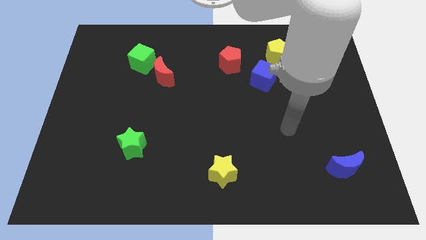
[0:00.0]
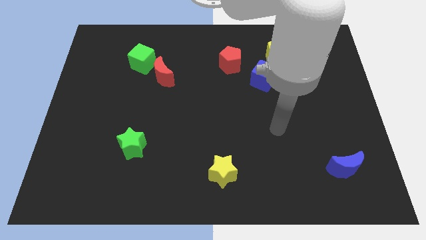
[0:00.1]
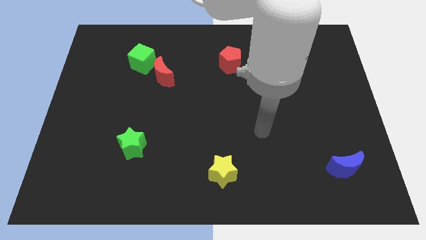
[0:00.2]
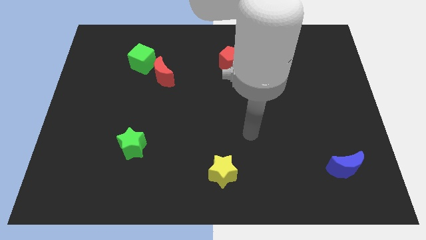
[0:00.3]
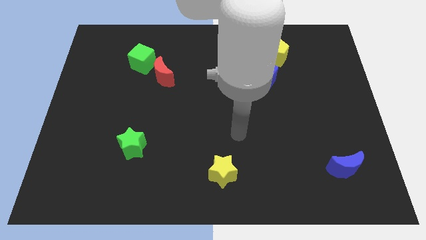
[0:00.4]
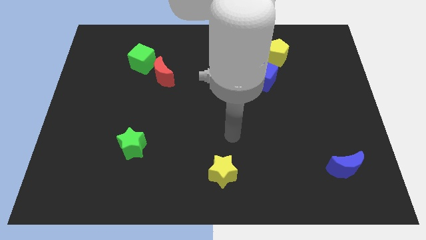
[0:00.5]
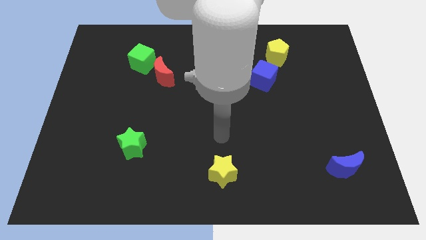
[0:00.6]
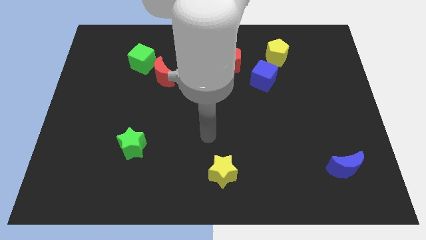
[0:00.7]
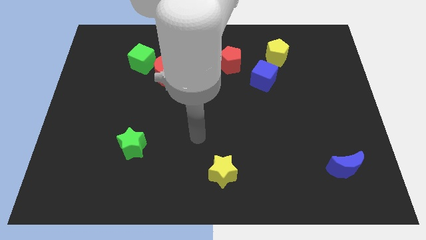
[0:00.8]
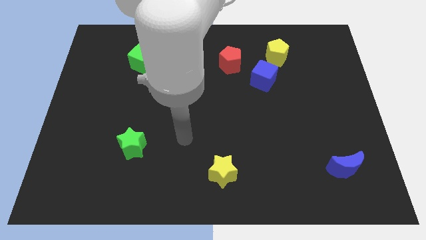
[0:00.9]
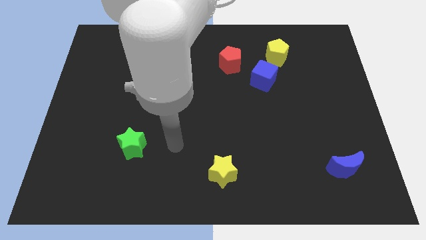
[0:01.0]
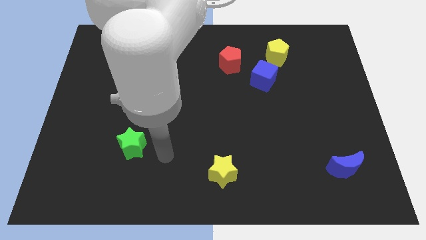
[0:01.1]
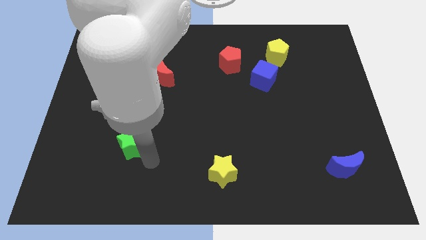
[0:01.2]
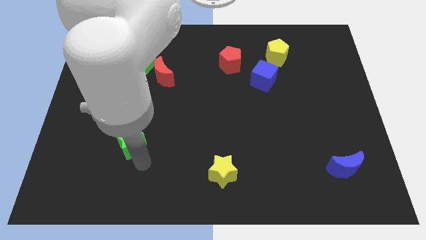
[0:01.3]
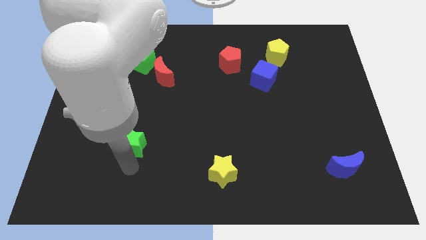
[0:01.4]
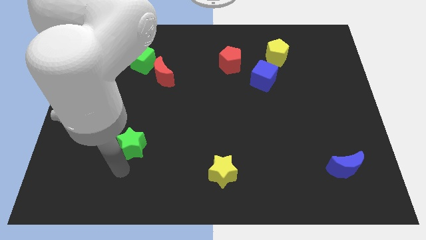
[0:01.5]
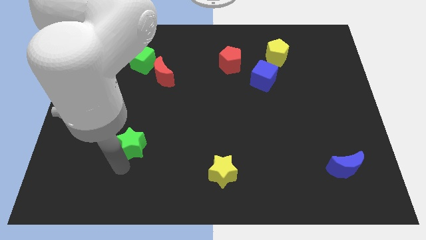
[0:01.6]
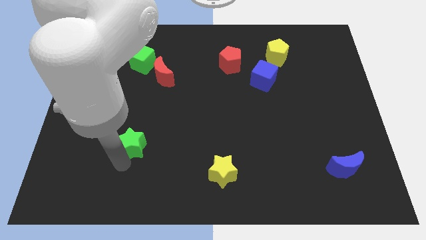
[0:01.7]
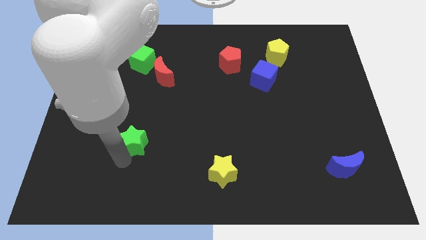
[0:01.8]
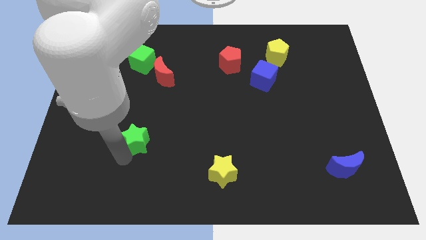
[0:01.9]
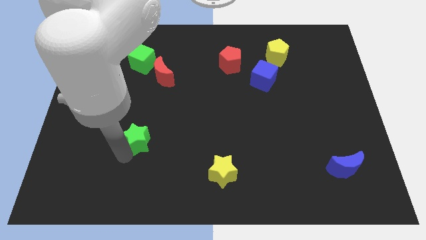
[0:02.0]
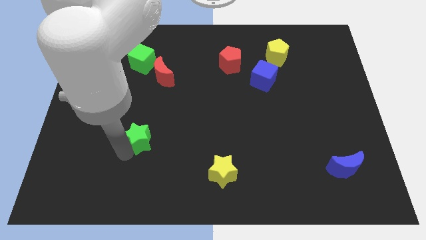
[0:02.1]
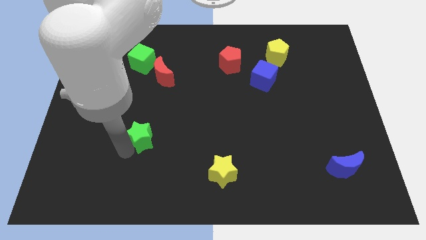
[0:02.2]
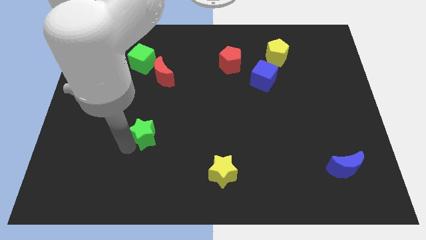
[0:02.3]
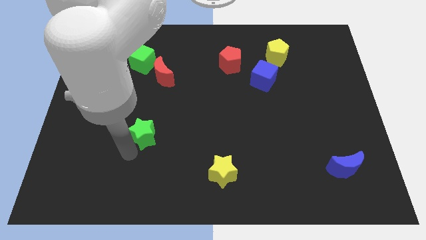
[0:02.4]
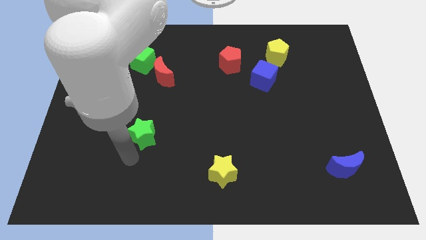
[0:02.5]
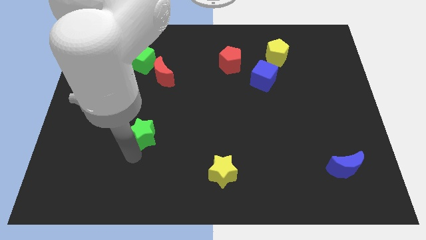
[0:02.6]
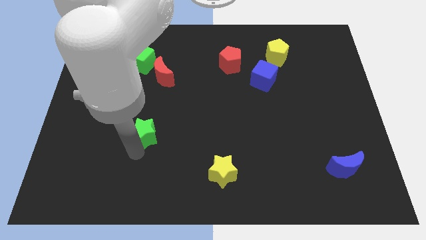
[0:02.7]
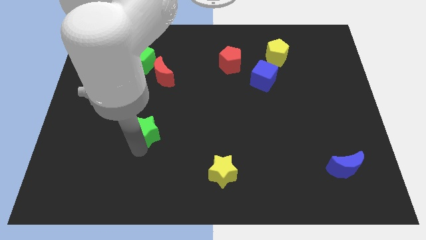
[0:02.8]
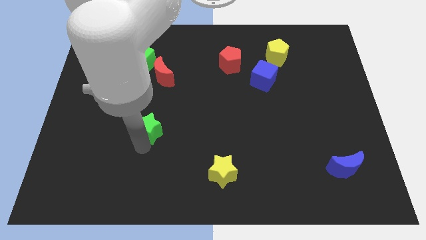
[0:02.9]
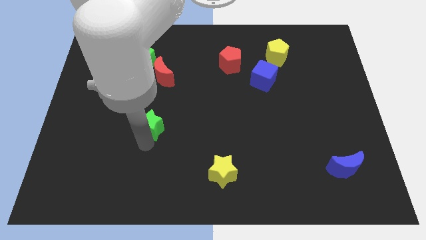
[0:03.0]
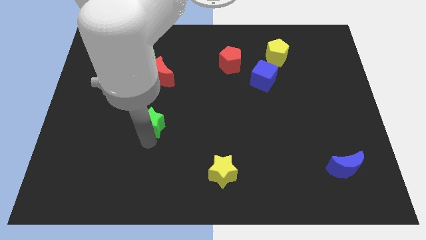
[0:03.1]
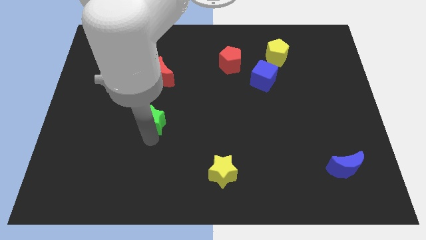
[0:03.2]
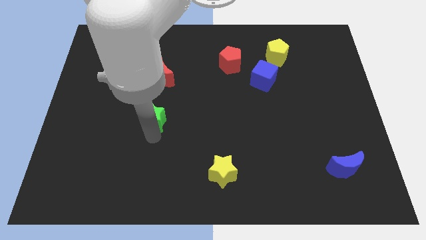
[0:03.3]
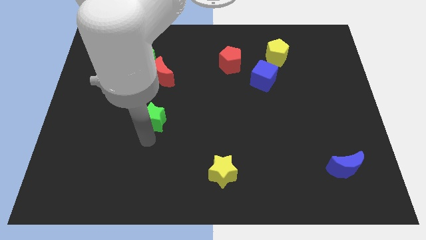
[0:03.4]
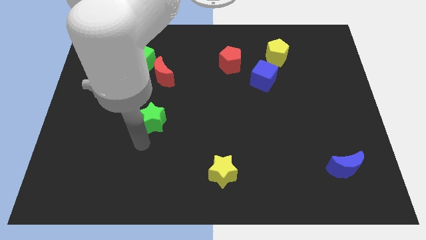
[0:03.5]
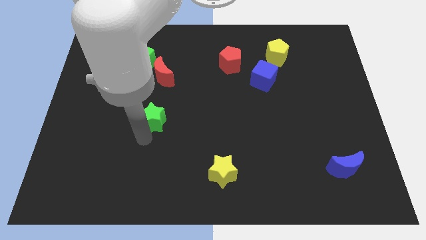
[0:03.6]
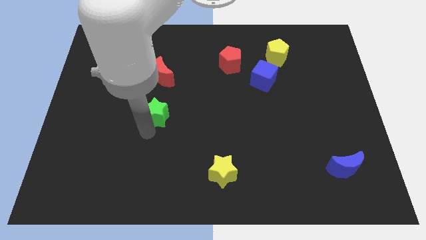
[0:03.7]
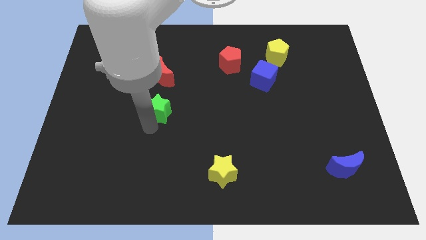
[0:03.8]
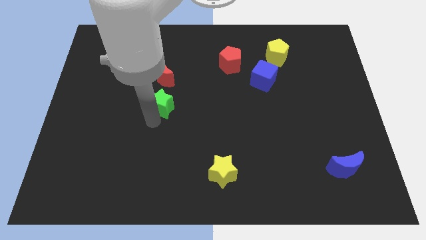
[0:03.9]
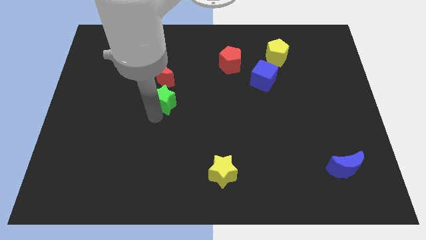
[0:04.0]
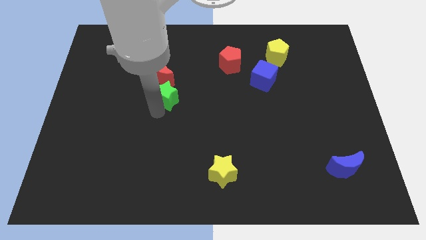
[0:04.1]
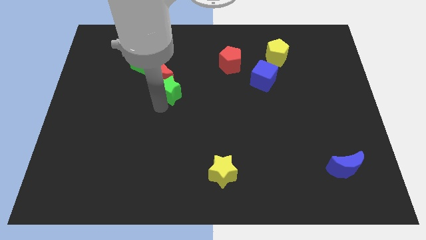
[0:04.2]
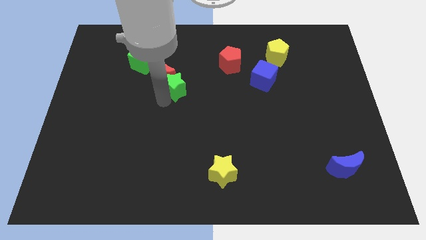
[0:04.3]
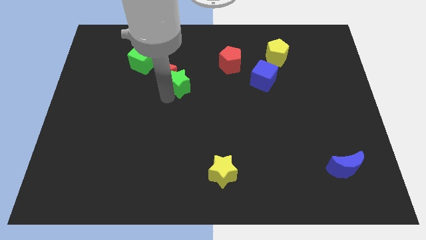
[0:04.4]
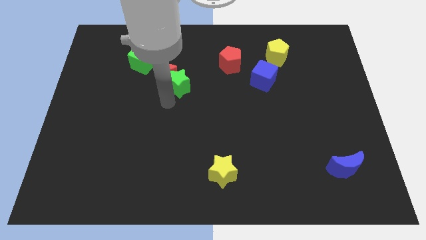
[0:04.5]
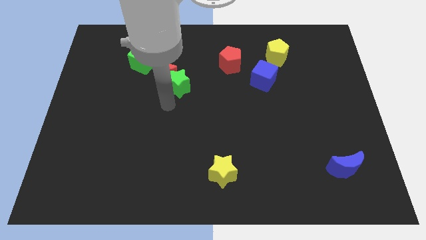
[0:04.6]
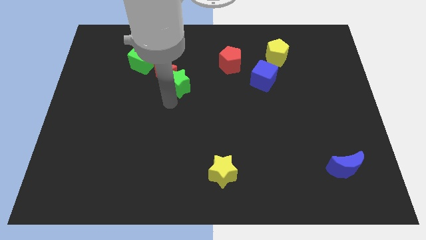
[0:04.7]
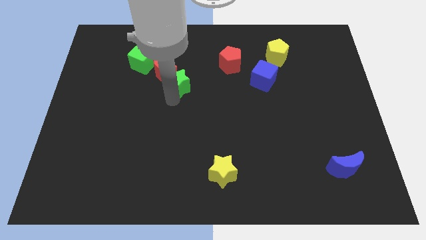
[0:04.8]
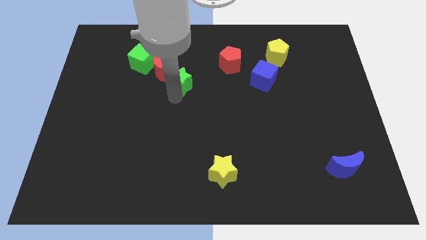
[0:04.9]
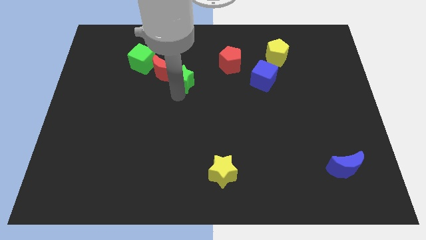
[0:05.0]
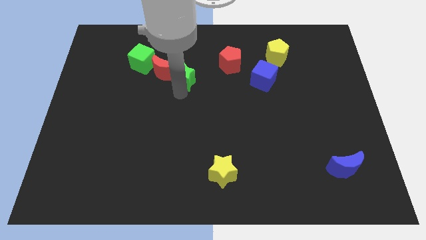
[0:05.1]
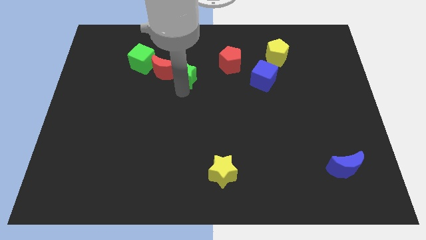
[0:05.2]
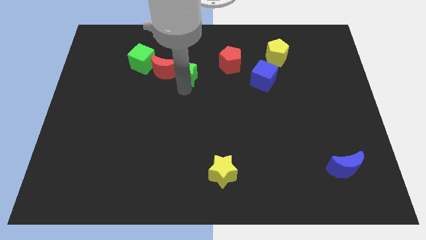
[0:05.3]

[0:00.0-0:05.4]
push the green star to the left of the red pentagon
